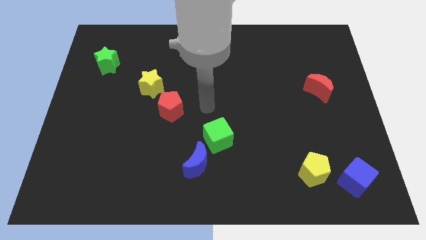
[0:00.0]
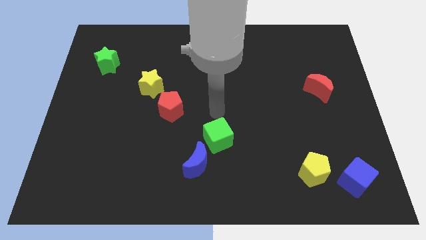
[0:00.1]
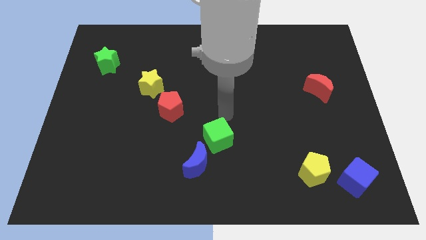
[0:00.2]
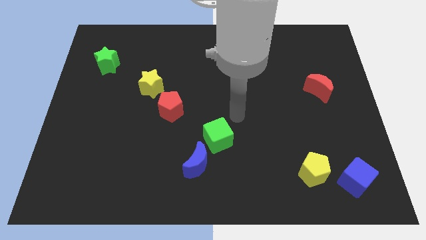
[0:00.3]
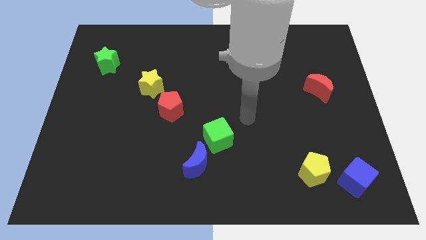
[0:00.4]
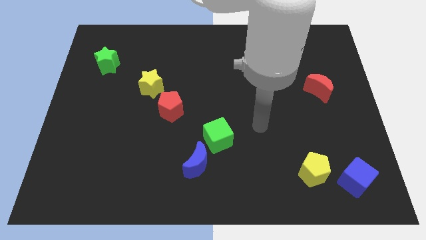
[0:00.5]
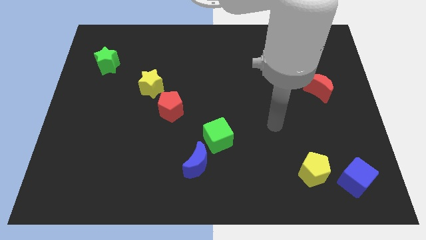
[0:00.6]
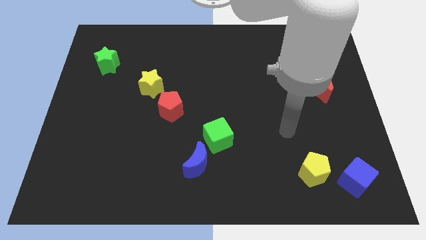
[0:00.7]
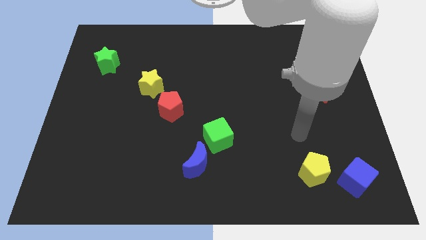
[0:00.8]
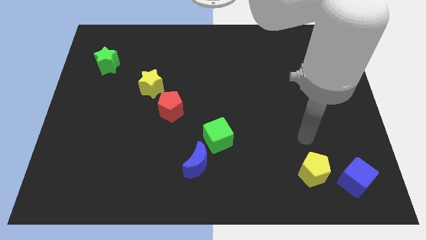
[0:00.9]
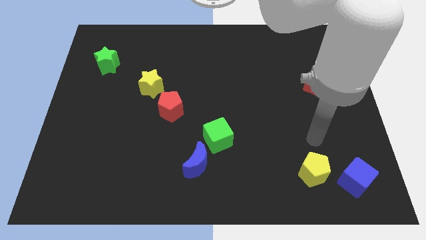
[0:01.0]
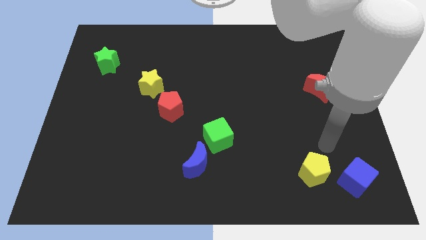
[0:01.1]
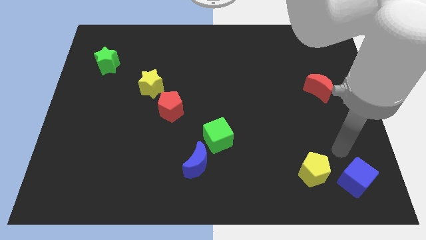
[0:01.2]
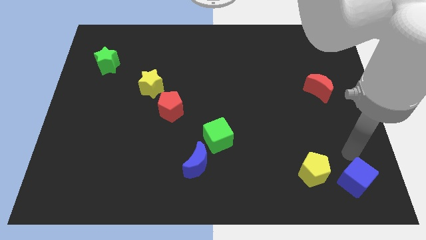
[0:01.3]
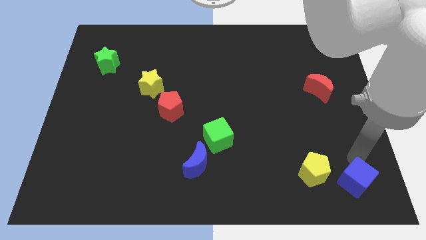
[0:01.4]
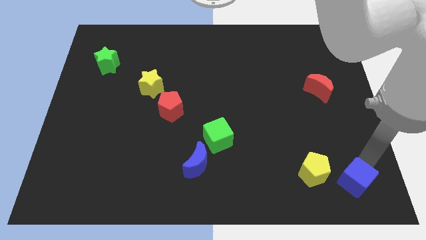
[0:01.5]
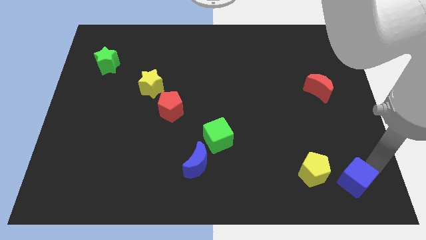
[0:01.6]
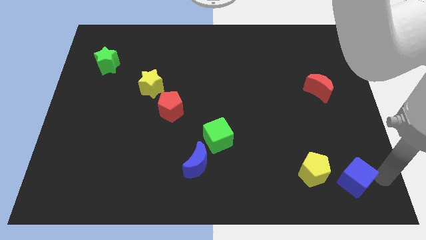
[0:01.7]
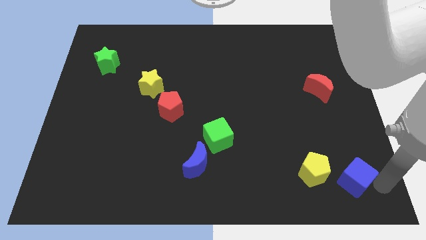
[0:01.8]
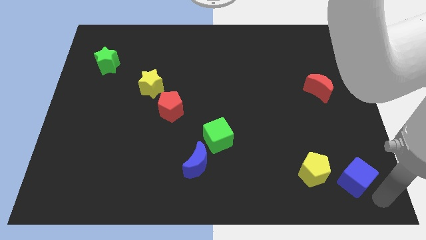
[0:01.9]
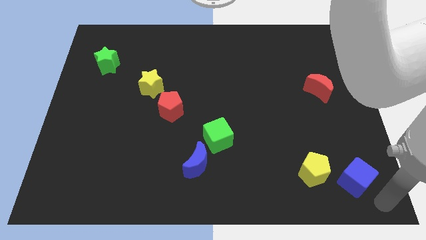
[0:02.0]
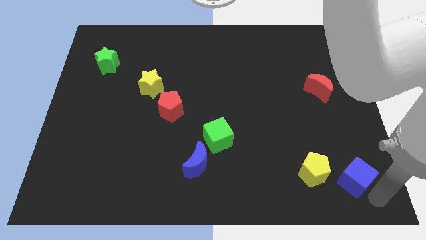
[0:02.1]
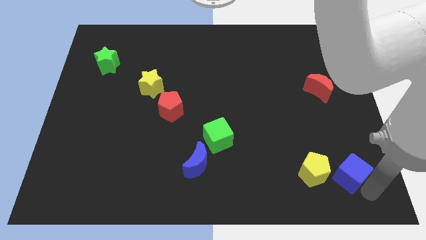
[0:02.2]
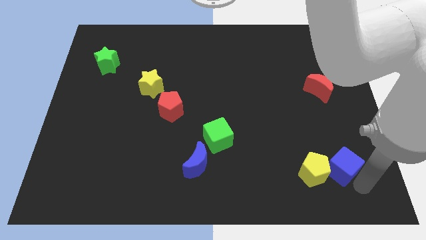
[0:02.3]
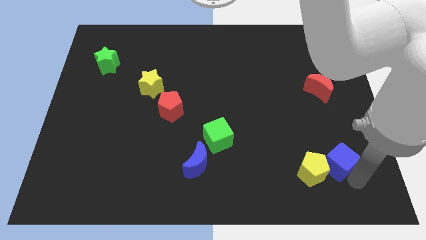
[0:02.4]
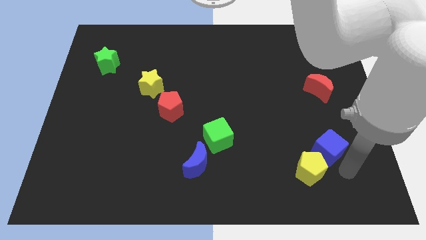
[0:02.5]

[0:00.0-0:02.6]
move the blue cube a little bit upwards and then to the left

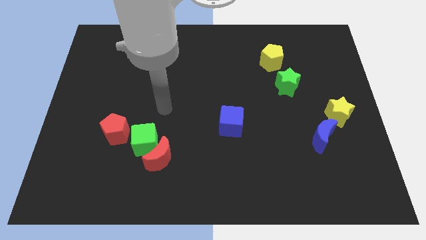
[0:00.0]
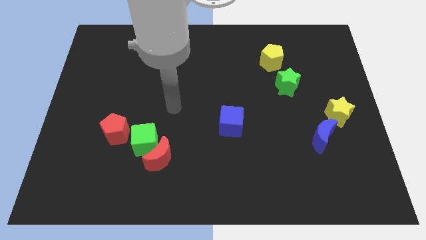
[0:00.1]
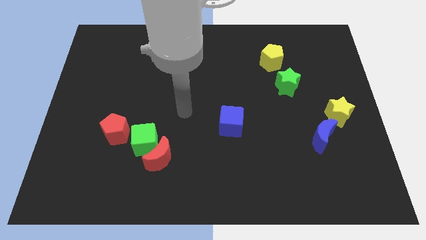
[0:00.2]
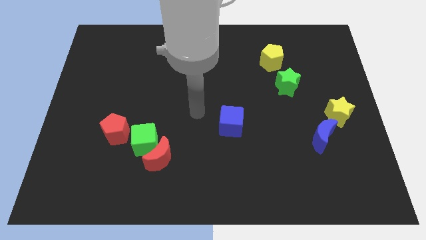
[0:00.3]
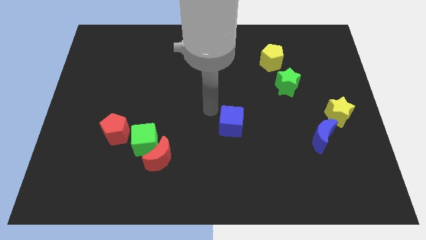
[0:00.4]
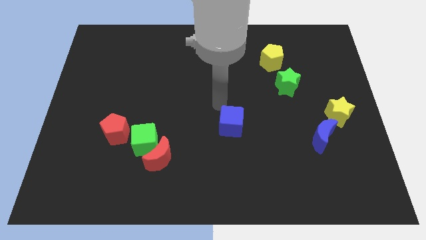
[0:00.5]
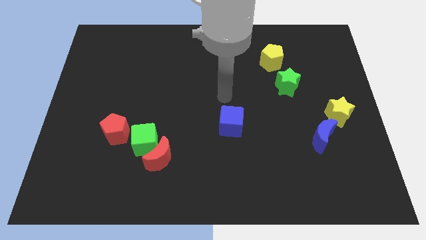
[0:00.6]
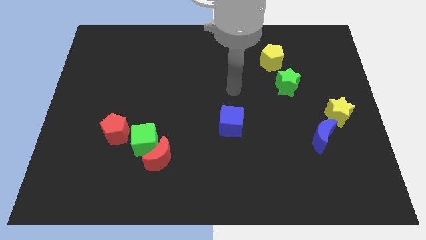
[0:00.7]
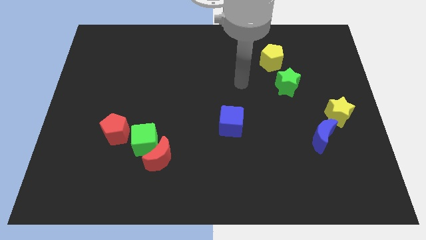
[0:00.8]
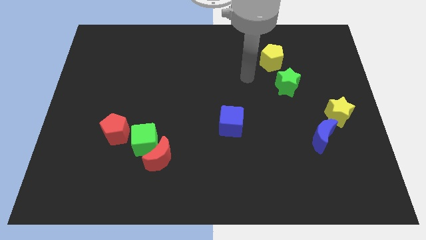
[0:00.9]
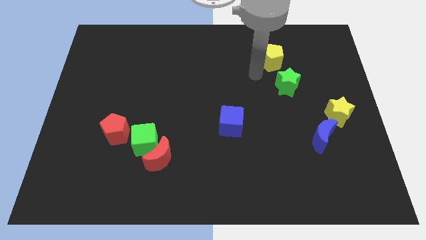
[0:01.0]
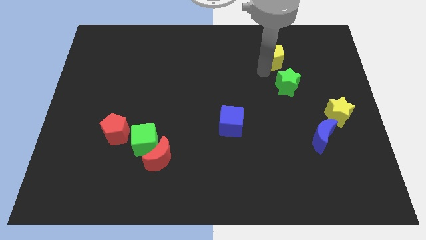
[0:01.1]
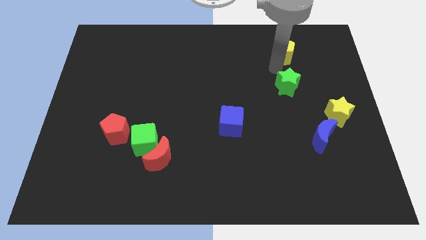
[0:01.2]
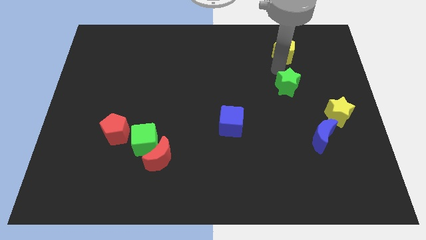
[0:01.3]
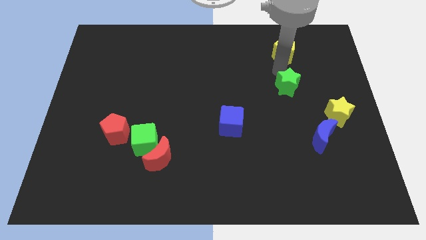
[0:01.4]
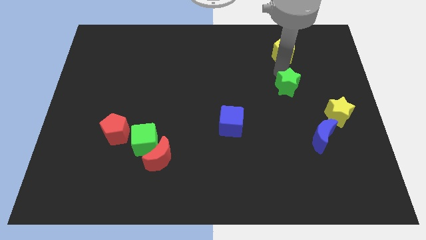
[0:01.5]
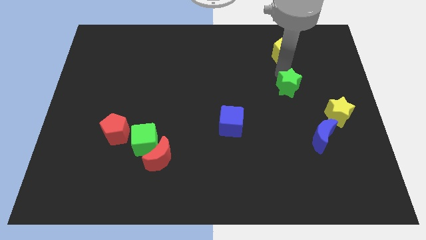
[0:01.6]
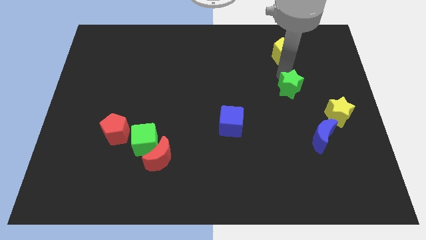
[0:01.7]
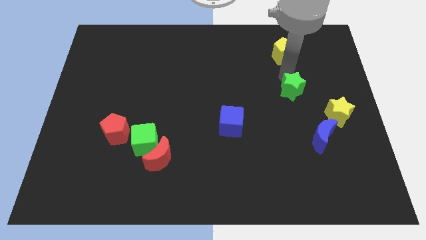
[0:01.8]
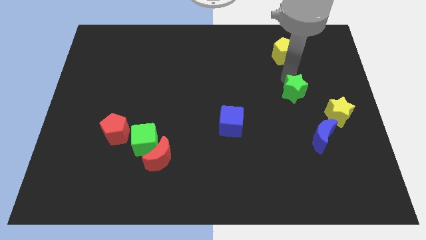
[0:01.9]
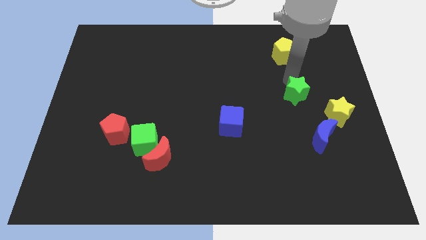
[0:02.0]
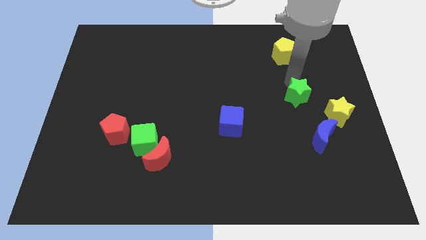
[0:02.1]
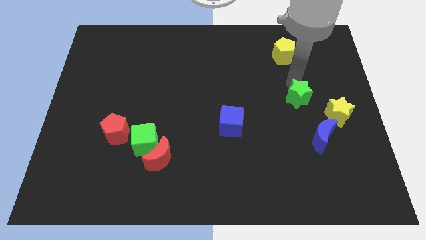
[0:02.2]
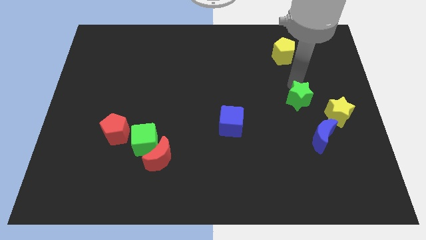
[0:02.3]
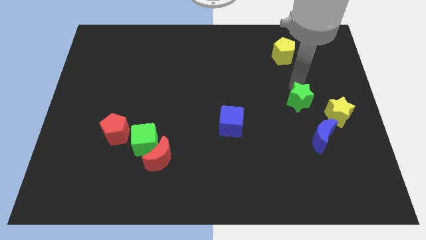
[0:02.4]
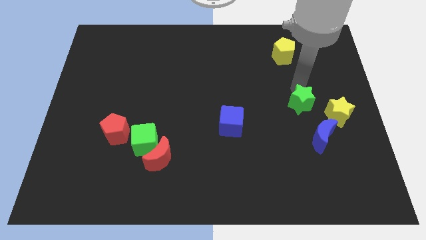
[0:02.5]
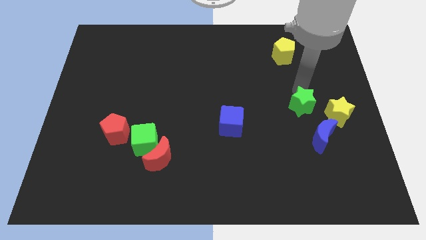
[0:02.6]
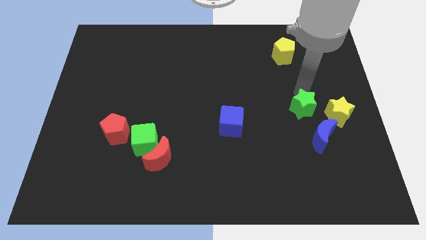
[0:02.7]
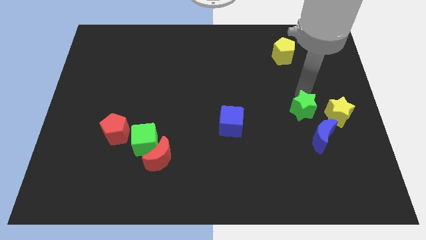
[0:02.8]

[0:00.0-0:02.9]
slide the green star slightly downwards

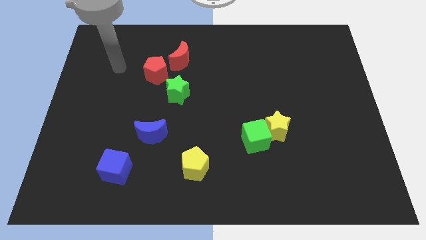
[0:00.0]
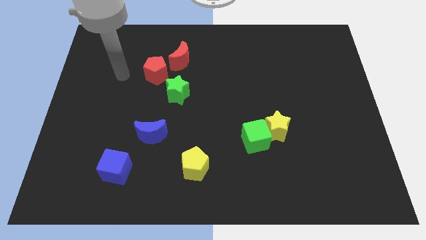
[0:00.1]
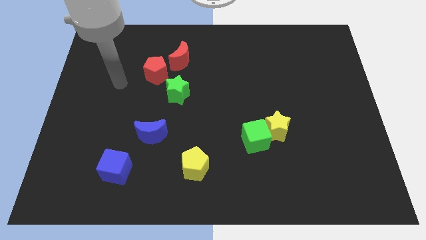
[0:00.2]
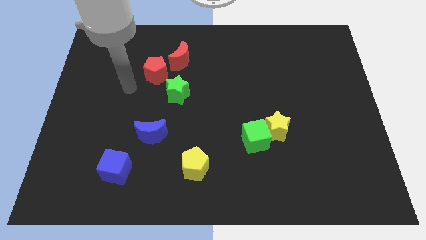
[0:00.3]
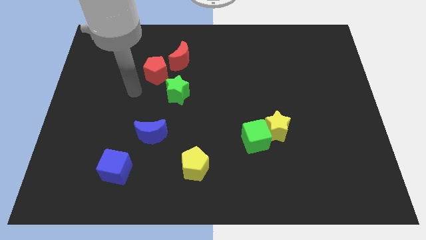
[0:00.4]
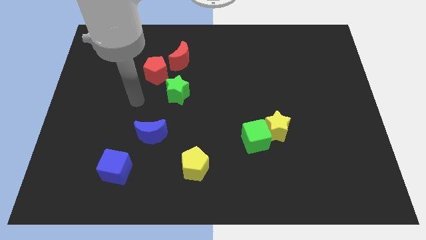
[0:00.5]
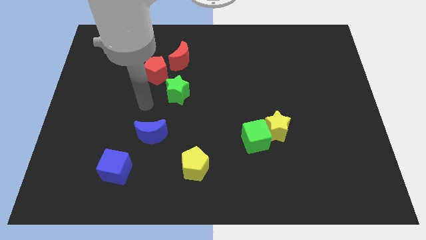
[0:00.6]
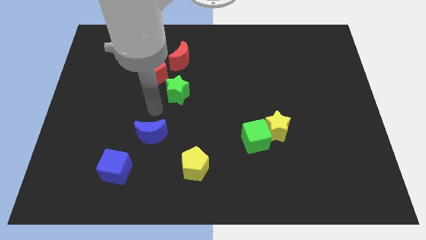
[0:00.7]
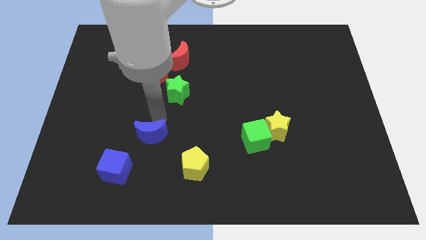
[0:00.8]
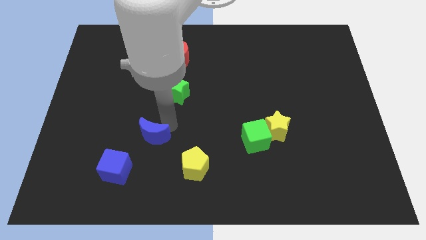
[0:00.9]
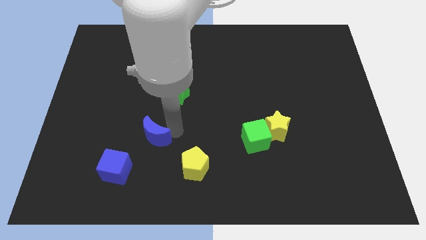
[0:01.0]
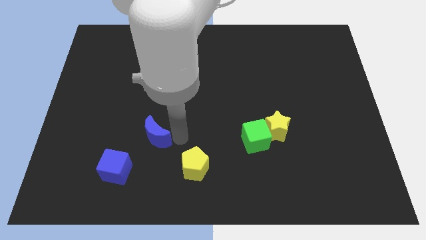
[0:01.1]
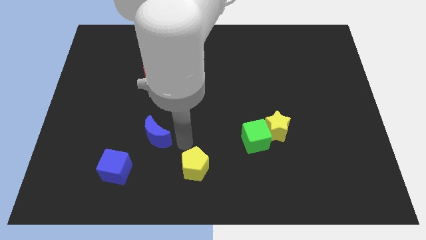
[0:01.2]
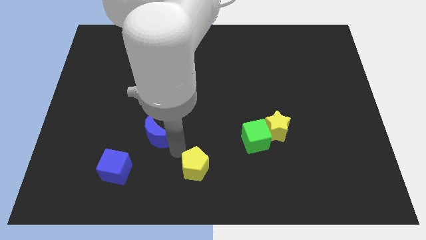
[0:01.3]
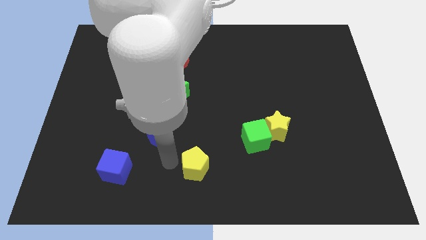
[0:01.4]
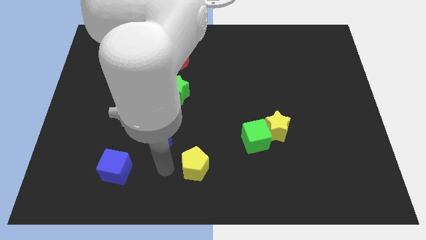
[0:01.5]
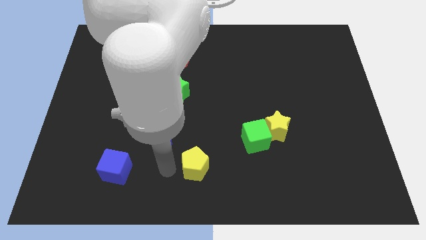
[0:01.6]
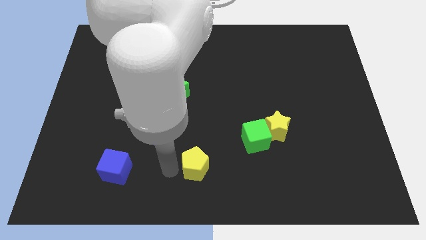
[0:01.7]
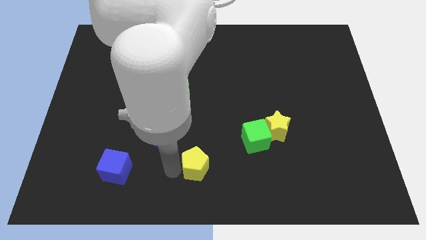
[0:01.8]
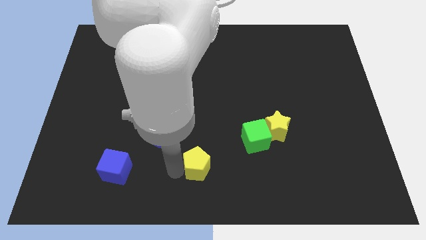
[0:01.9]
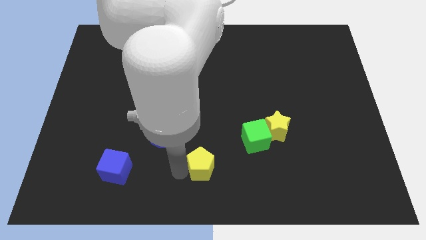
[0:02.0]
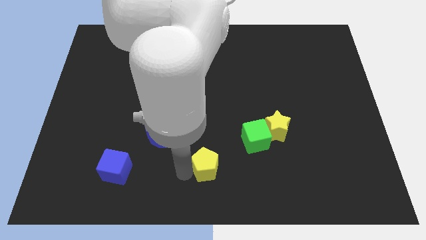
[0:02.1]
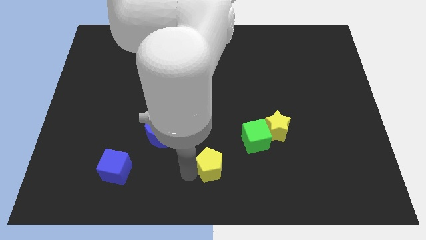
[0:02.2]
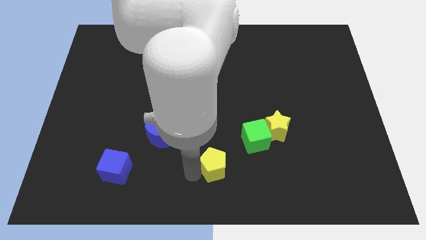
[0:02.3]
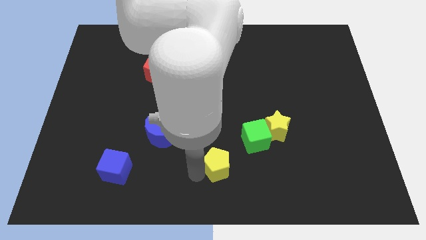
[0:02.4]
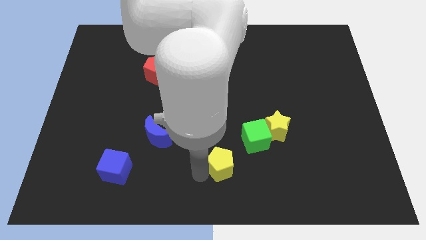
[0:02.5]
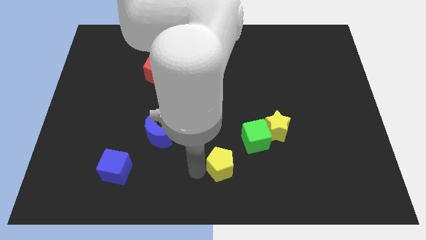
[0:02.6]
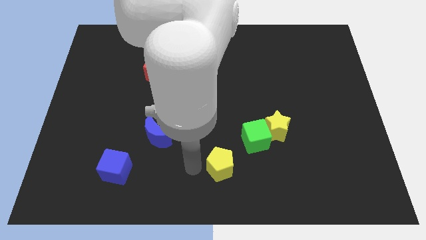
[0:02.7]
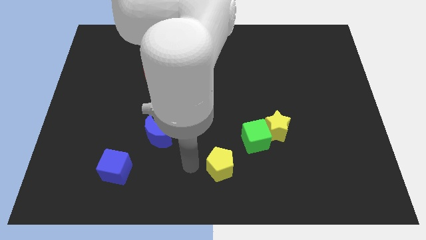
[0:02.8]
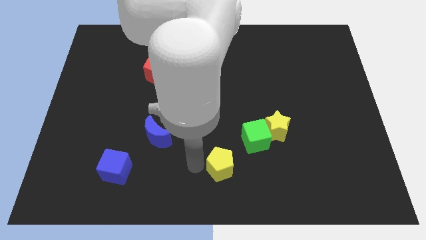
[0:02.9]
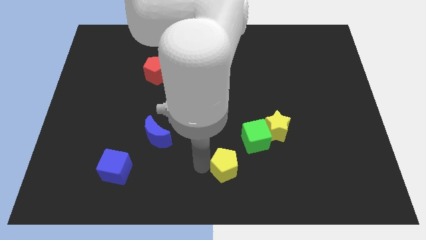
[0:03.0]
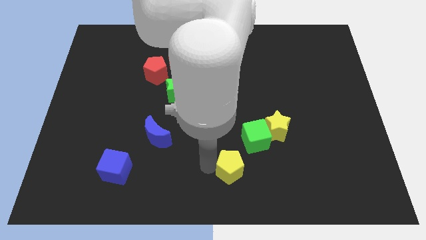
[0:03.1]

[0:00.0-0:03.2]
move the yellow pentagon to the right somewhat
